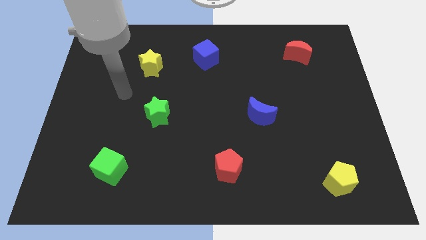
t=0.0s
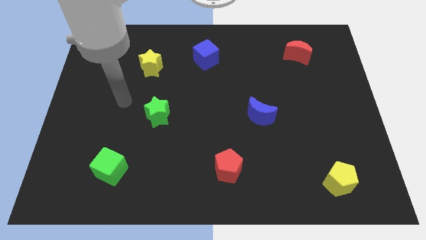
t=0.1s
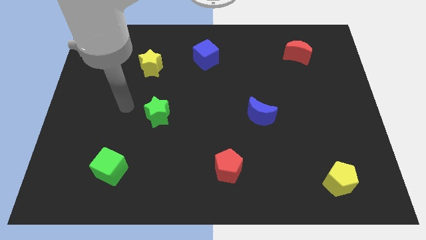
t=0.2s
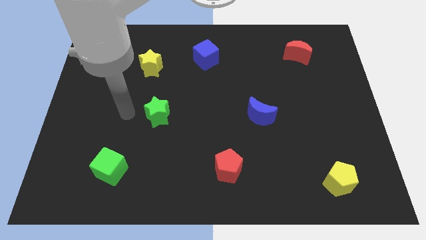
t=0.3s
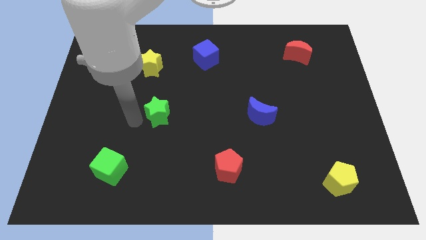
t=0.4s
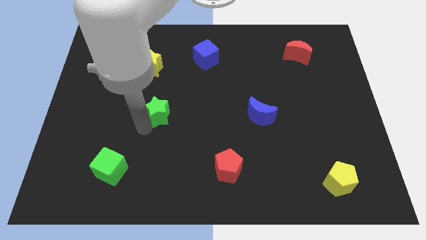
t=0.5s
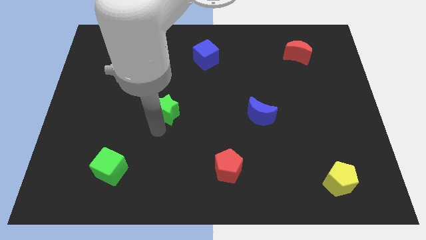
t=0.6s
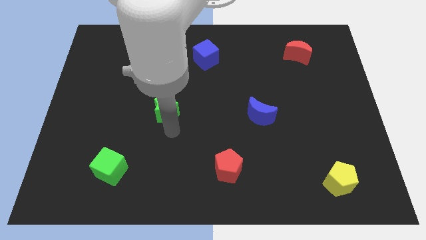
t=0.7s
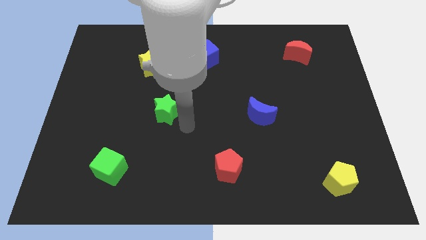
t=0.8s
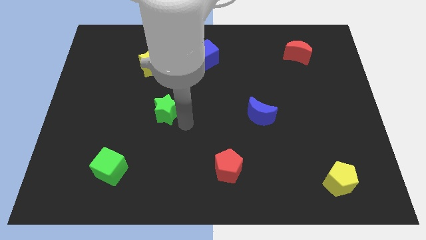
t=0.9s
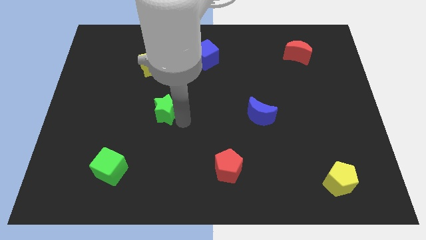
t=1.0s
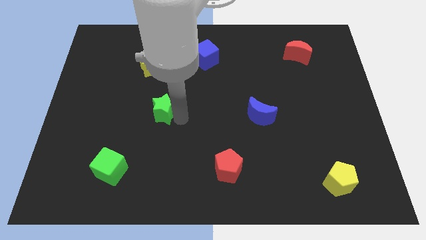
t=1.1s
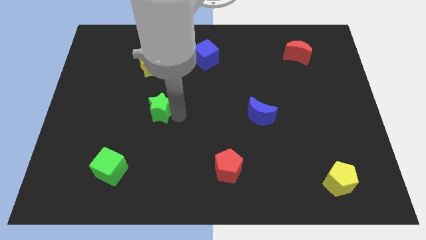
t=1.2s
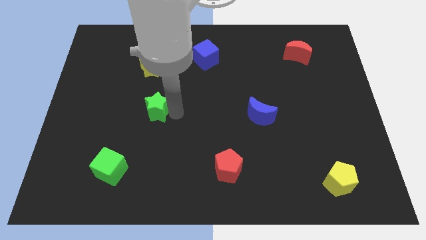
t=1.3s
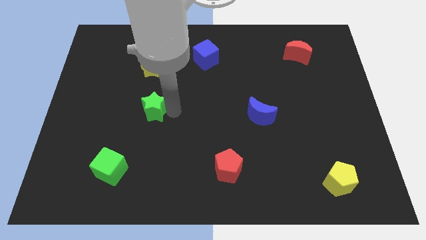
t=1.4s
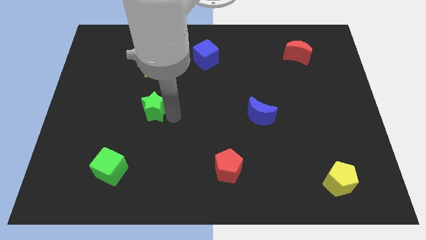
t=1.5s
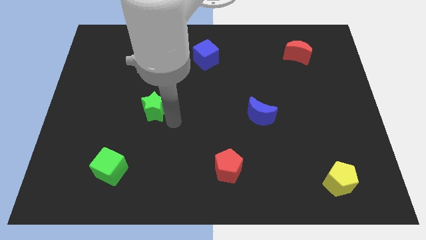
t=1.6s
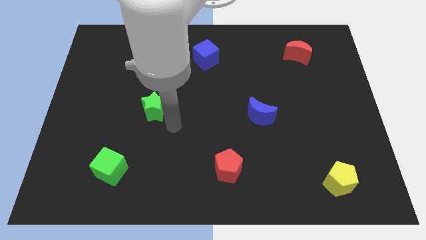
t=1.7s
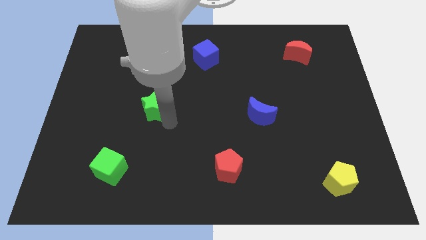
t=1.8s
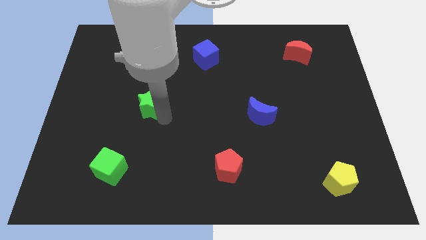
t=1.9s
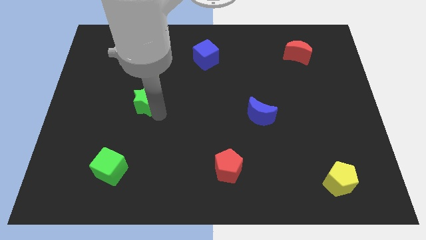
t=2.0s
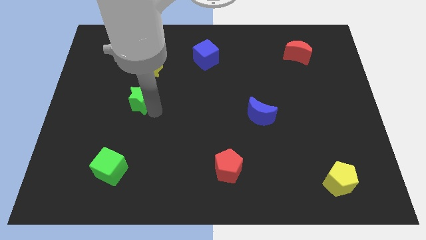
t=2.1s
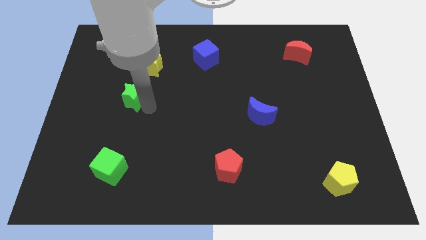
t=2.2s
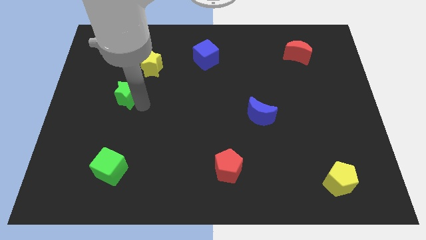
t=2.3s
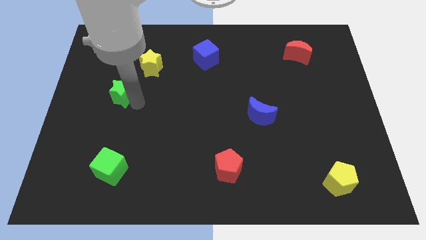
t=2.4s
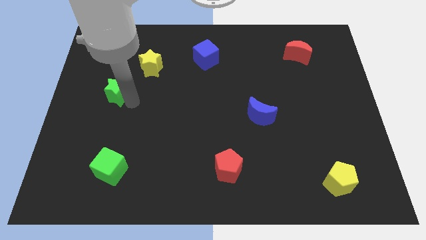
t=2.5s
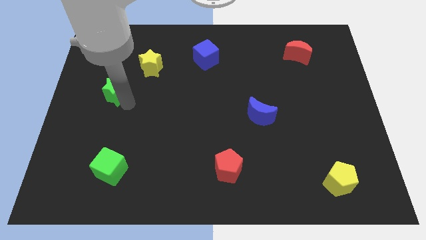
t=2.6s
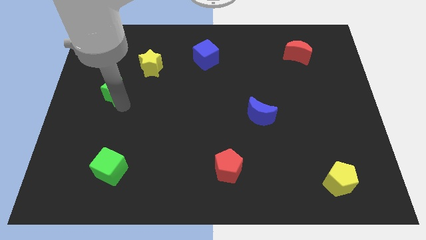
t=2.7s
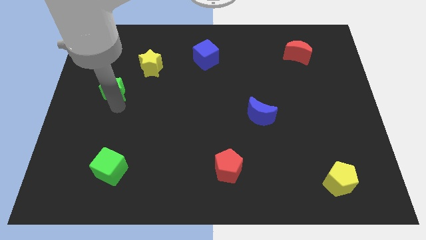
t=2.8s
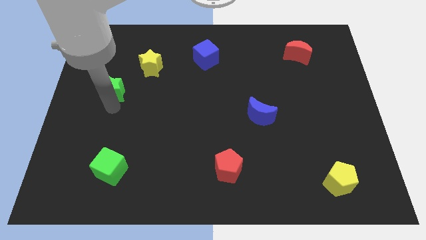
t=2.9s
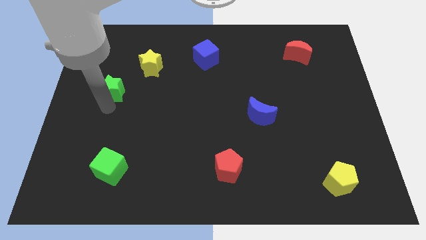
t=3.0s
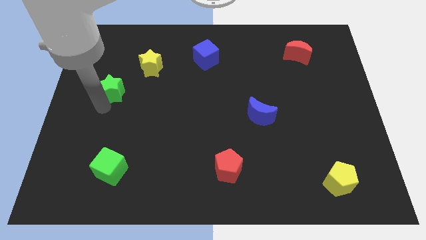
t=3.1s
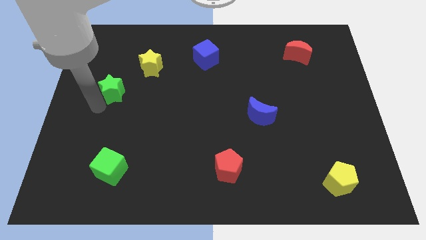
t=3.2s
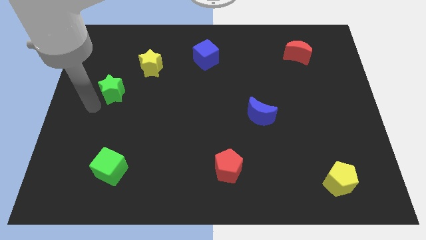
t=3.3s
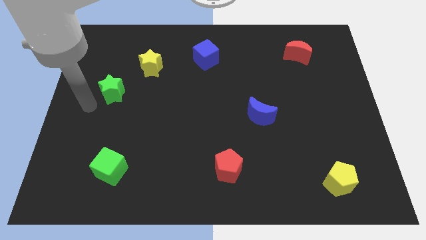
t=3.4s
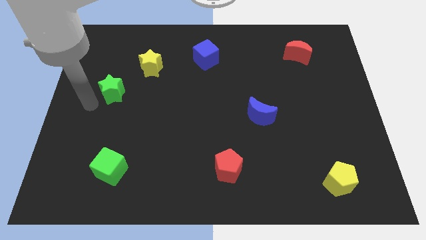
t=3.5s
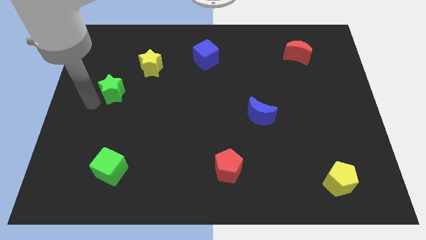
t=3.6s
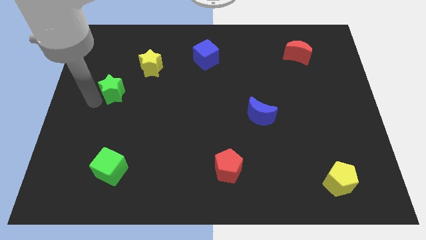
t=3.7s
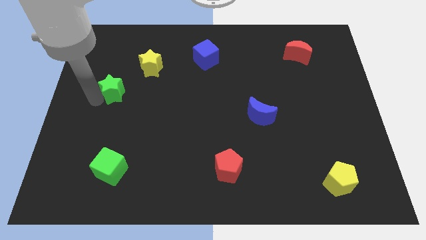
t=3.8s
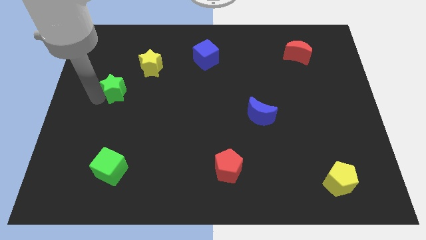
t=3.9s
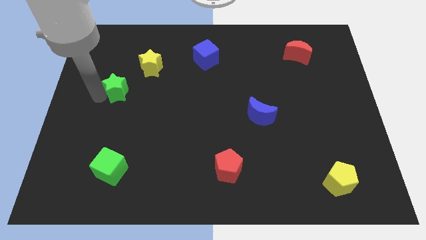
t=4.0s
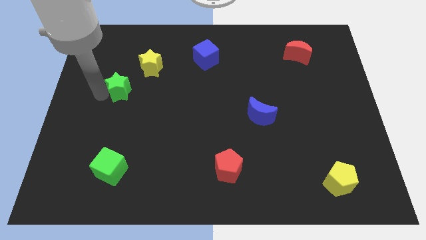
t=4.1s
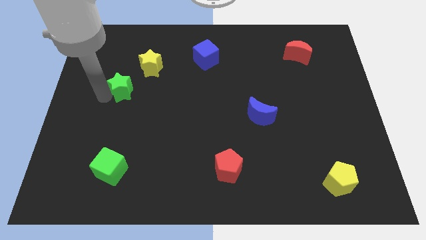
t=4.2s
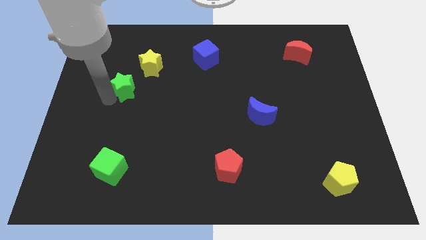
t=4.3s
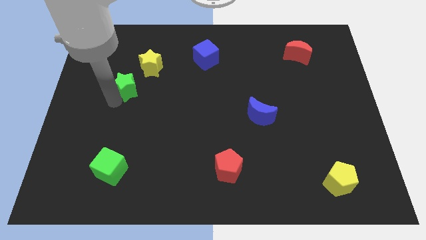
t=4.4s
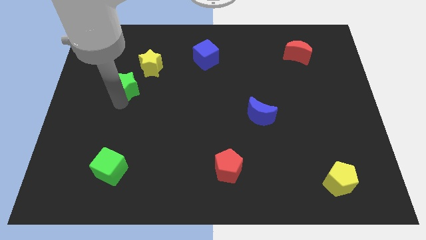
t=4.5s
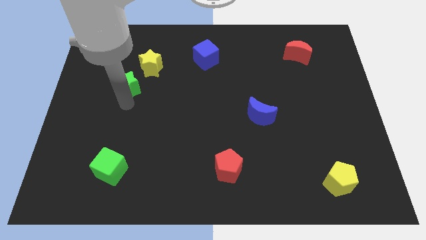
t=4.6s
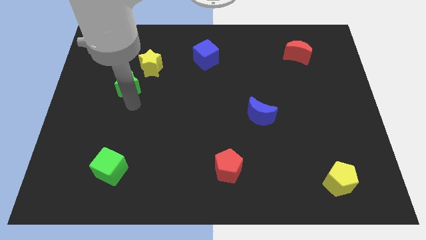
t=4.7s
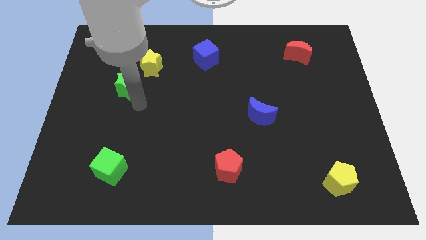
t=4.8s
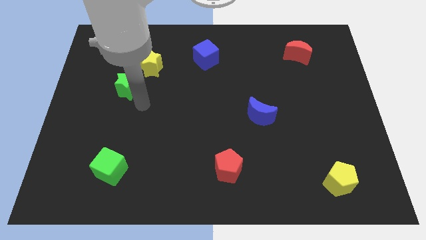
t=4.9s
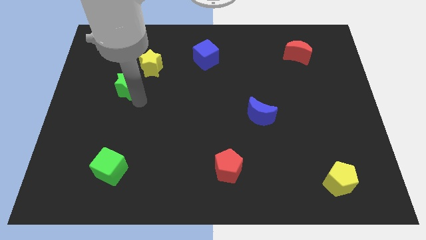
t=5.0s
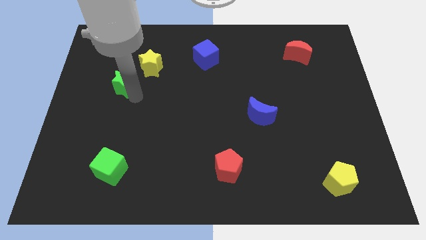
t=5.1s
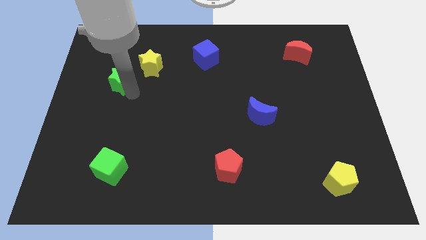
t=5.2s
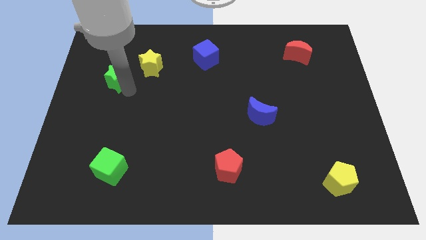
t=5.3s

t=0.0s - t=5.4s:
push the green star just left of the yellow star
